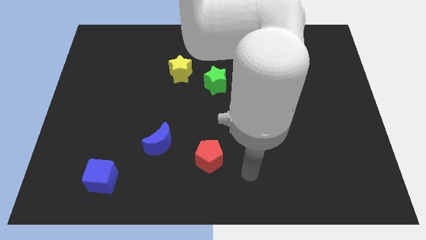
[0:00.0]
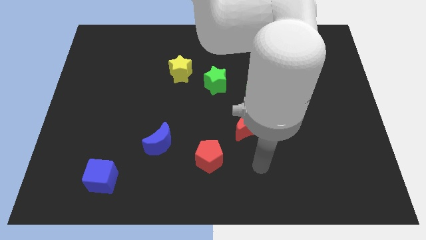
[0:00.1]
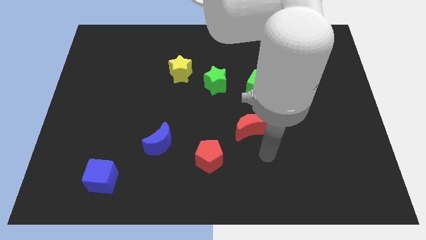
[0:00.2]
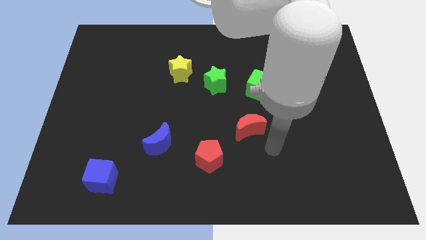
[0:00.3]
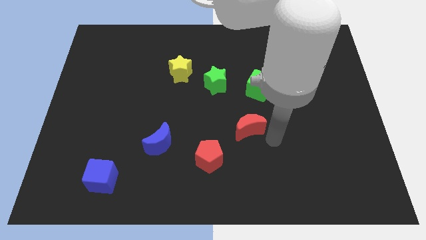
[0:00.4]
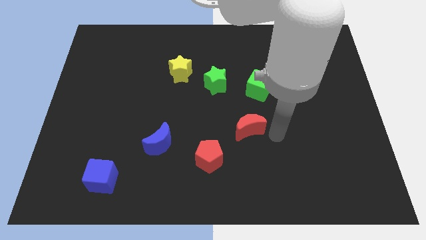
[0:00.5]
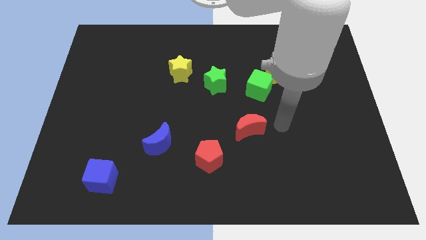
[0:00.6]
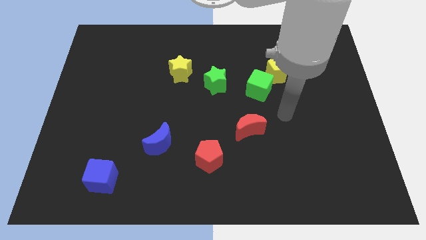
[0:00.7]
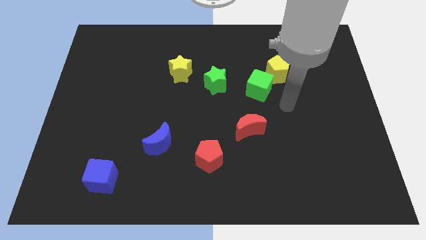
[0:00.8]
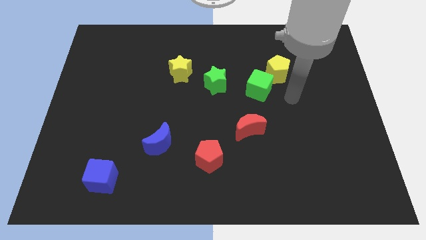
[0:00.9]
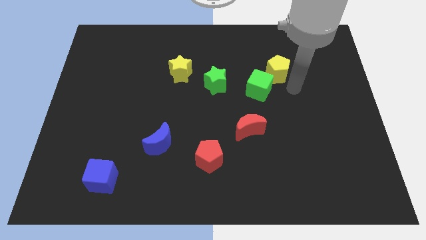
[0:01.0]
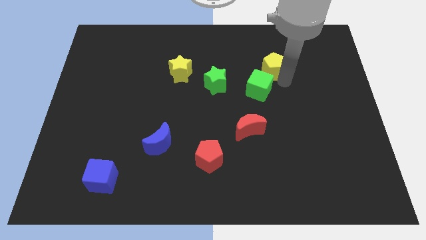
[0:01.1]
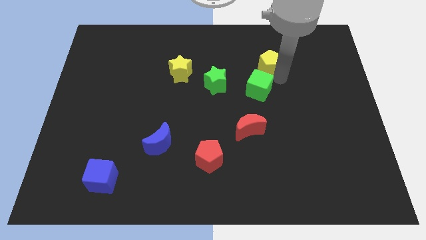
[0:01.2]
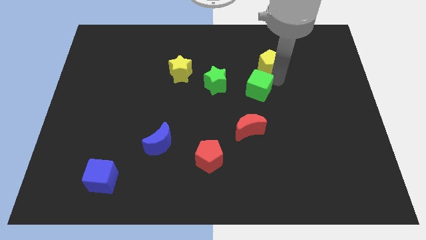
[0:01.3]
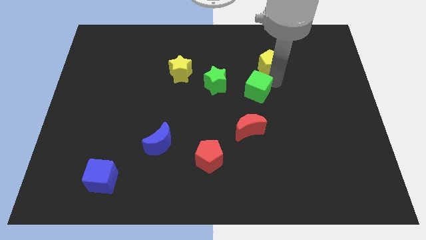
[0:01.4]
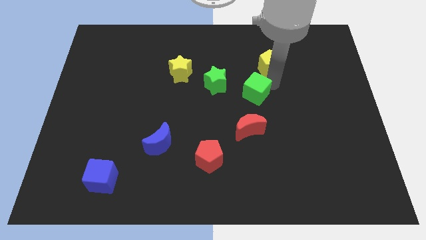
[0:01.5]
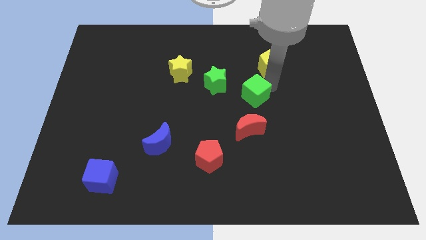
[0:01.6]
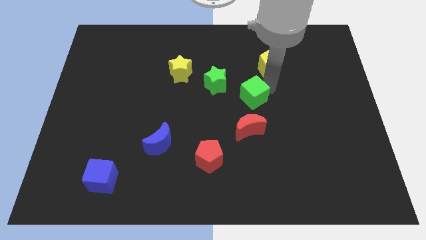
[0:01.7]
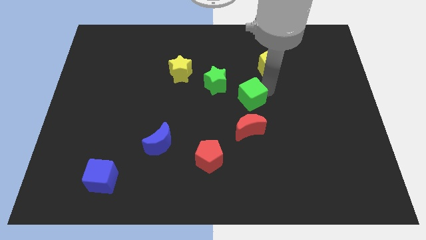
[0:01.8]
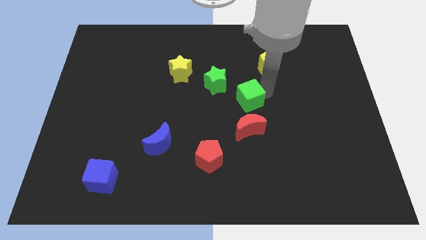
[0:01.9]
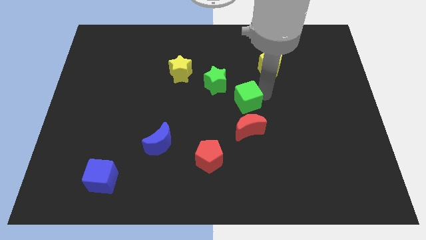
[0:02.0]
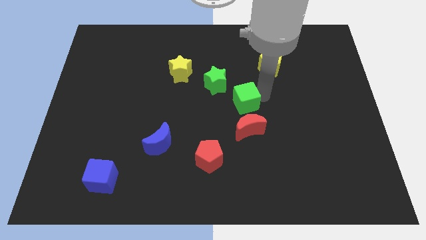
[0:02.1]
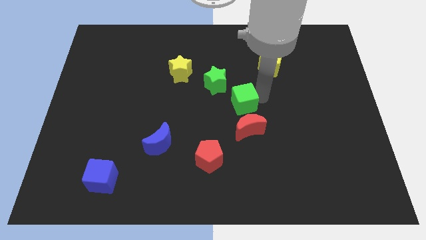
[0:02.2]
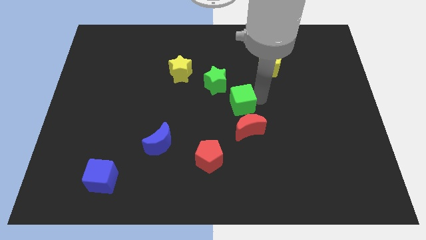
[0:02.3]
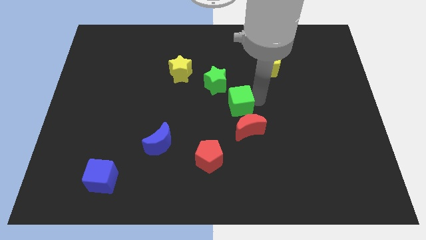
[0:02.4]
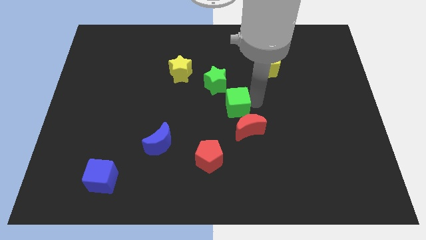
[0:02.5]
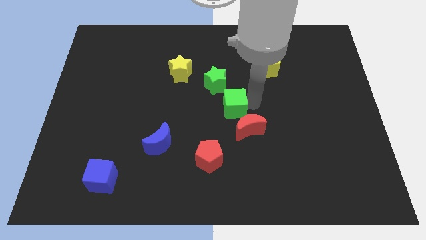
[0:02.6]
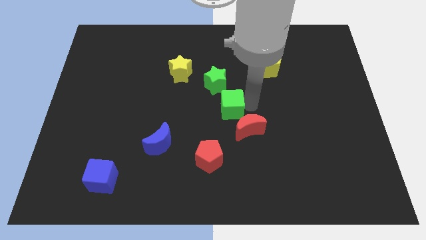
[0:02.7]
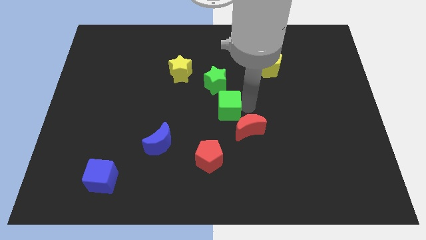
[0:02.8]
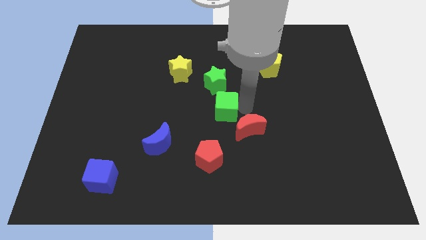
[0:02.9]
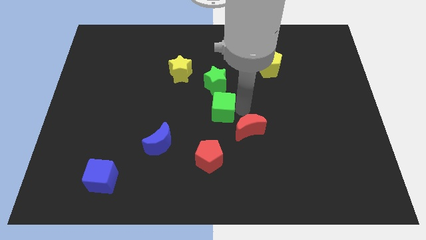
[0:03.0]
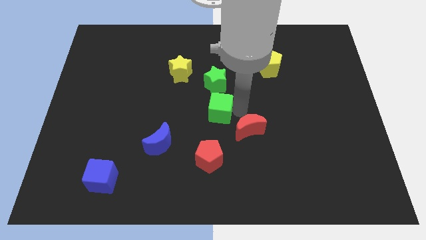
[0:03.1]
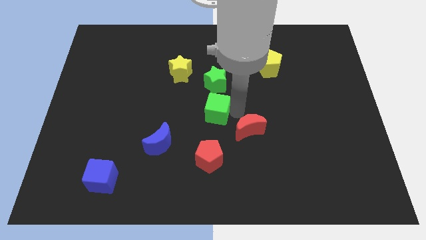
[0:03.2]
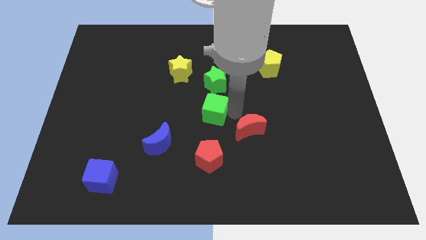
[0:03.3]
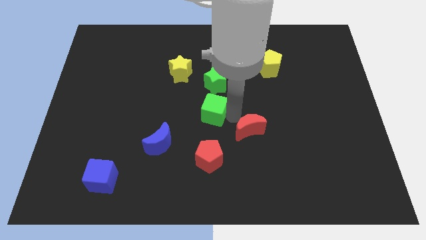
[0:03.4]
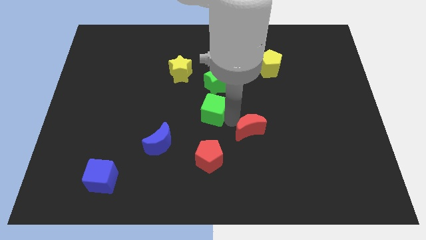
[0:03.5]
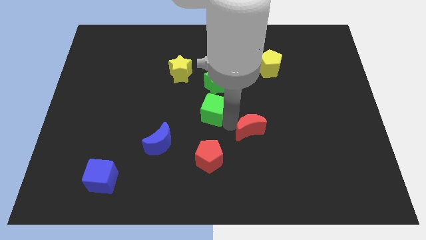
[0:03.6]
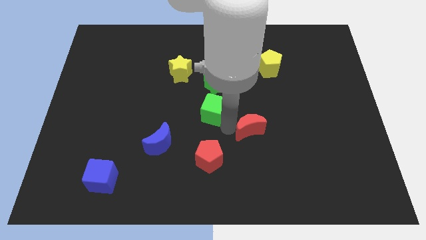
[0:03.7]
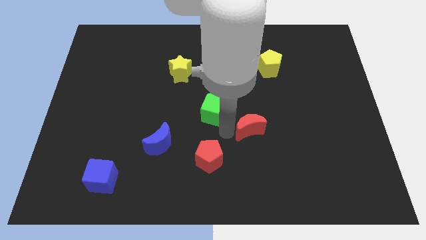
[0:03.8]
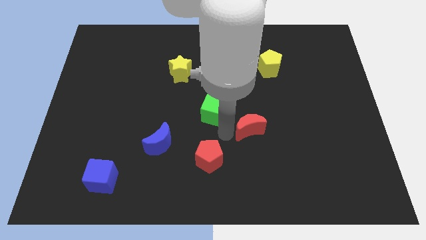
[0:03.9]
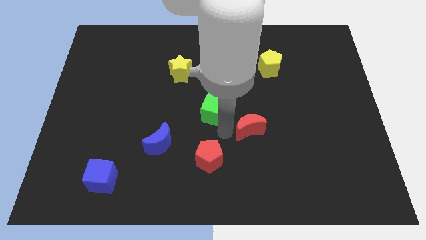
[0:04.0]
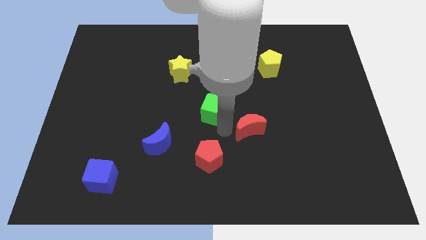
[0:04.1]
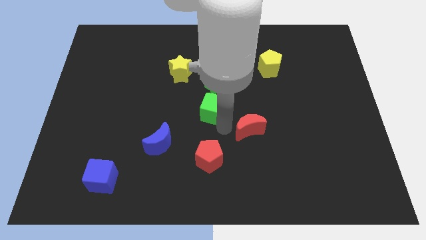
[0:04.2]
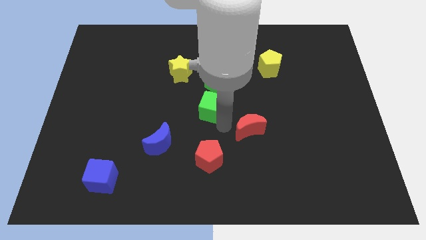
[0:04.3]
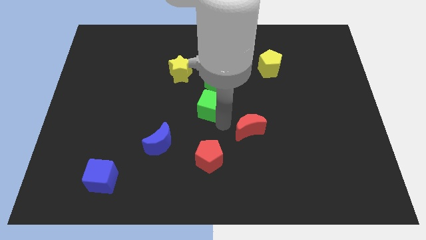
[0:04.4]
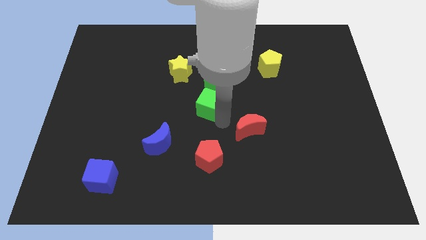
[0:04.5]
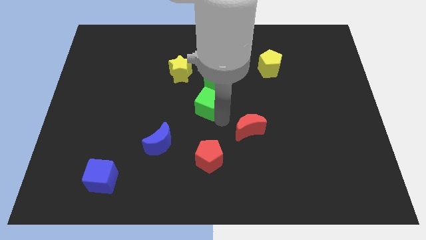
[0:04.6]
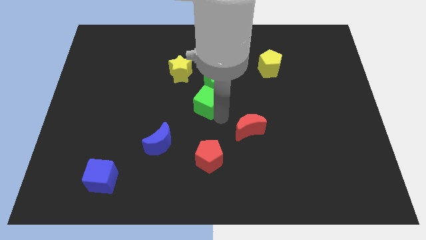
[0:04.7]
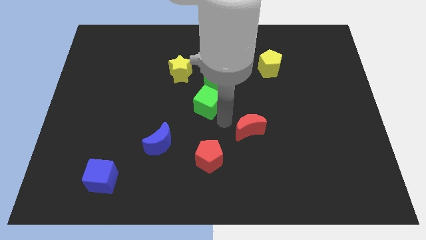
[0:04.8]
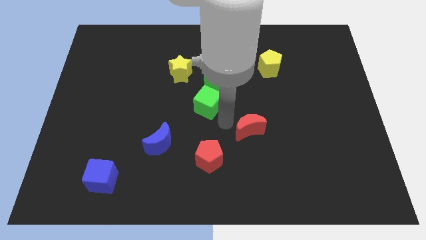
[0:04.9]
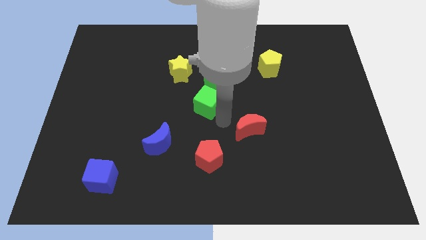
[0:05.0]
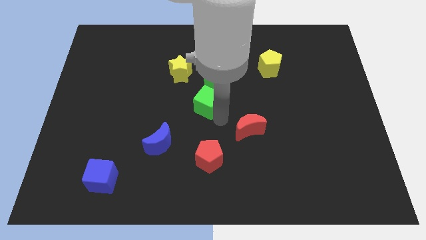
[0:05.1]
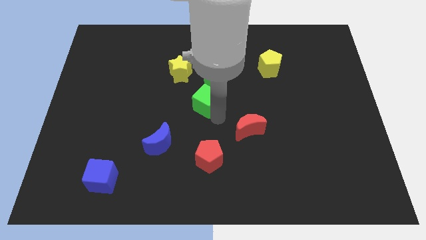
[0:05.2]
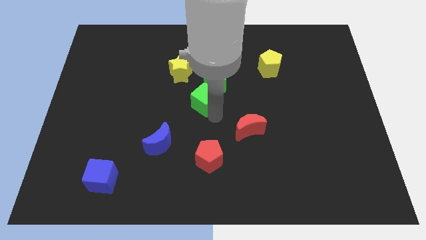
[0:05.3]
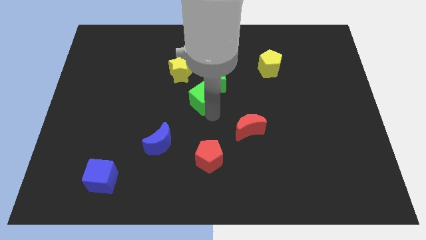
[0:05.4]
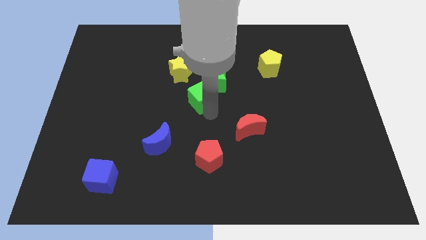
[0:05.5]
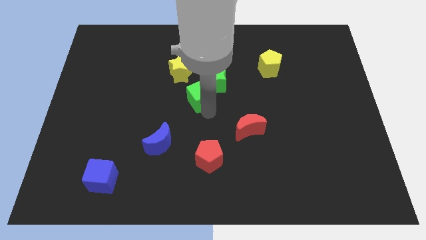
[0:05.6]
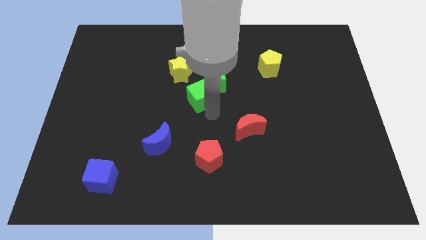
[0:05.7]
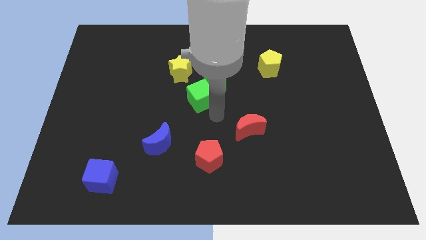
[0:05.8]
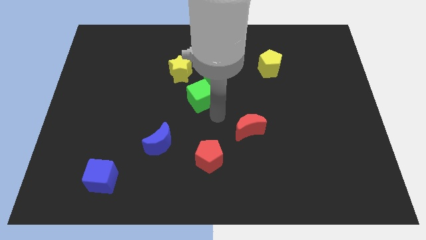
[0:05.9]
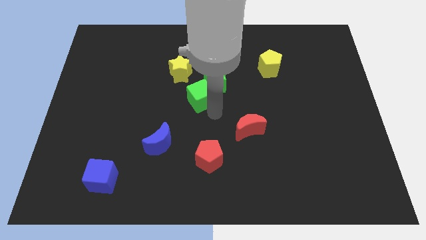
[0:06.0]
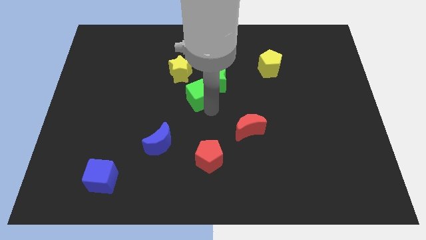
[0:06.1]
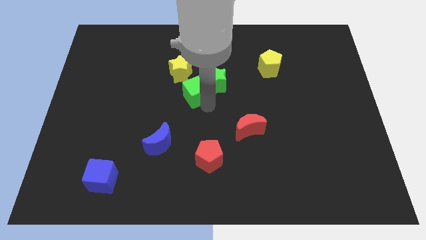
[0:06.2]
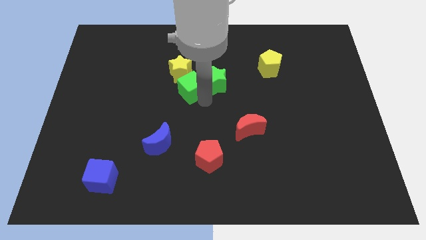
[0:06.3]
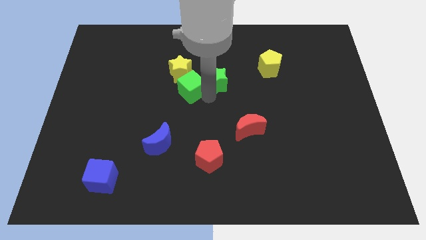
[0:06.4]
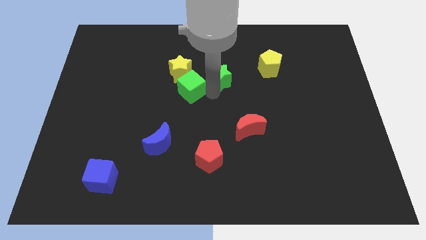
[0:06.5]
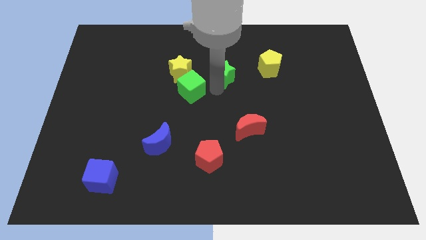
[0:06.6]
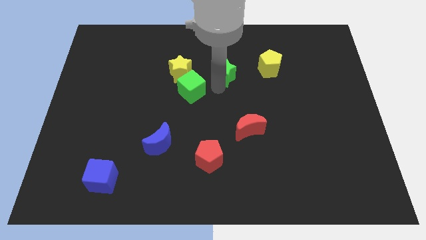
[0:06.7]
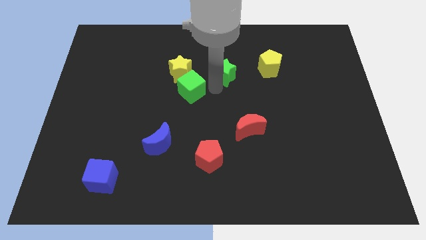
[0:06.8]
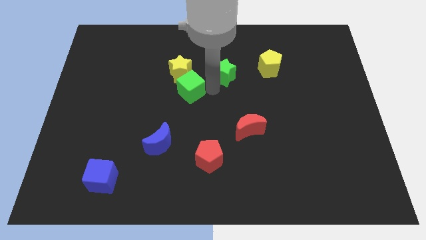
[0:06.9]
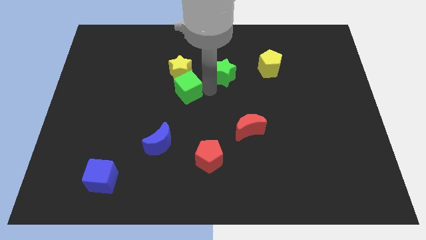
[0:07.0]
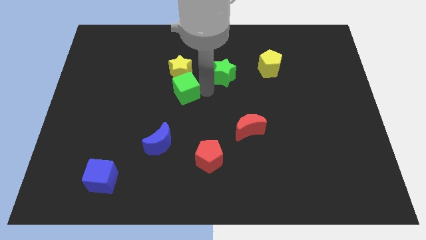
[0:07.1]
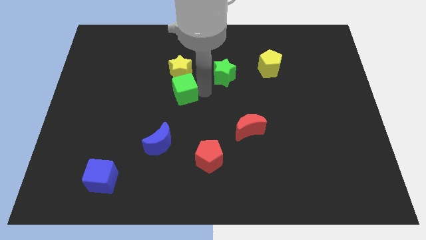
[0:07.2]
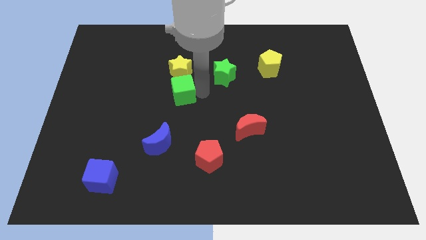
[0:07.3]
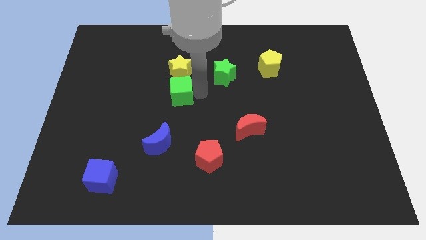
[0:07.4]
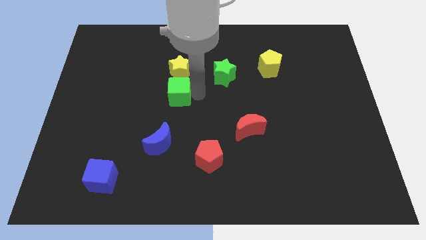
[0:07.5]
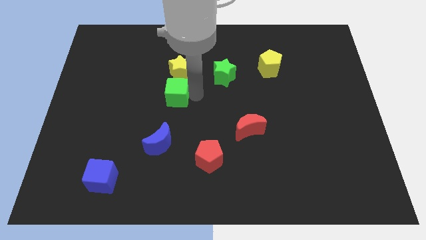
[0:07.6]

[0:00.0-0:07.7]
move the green cube to the left
